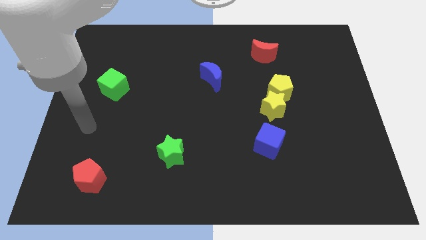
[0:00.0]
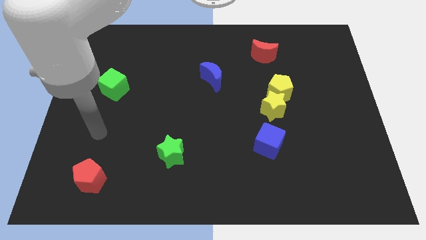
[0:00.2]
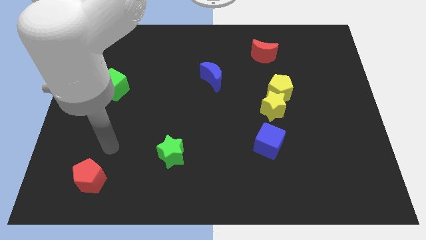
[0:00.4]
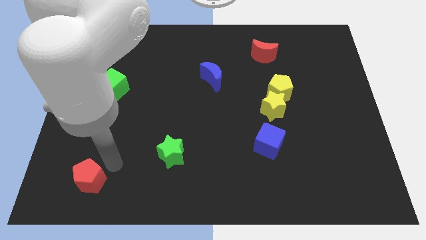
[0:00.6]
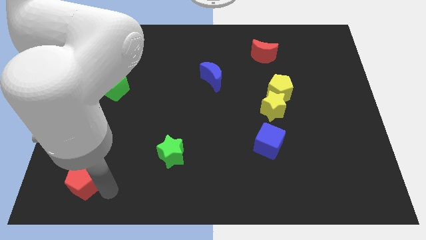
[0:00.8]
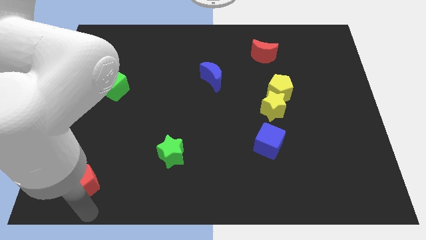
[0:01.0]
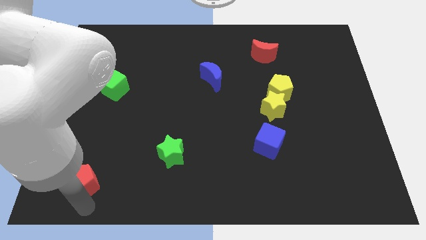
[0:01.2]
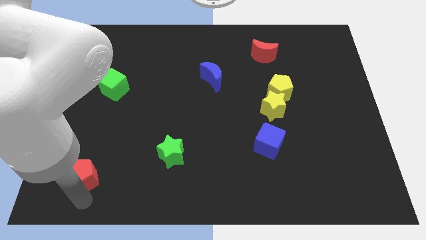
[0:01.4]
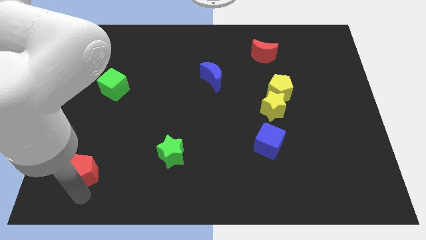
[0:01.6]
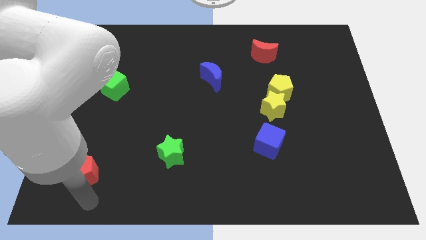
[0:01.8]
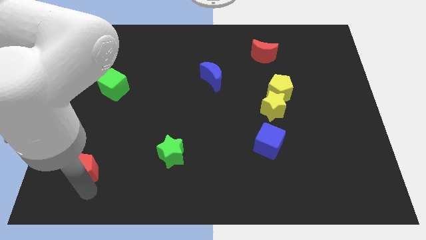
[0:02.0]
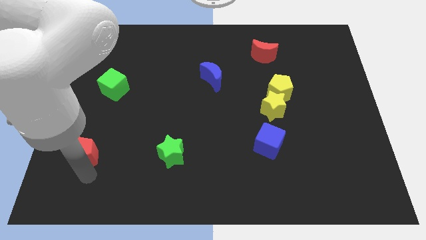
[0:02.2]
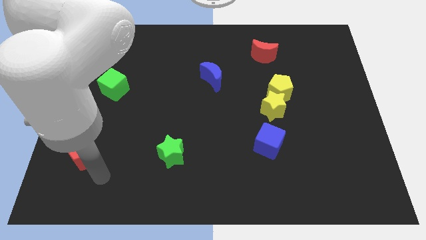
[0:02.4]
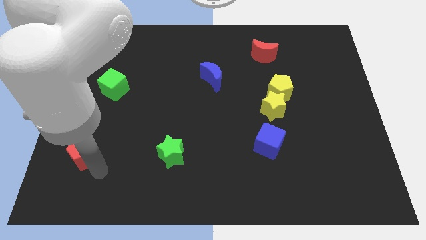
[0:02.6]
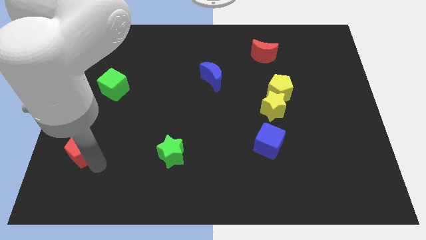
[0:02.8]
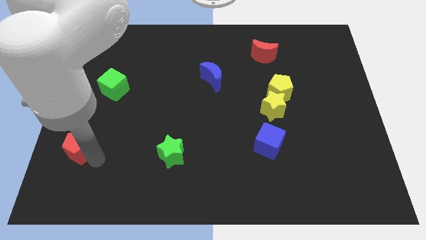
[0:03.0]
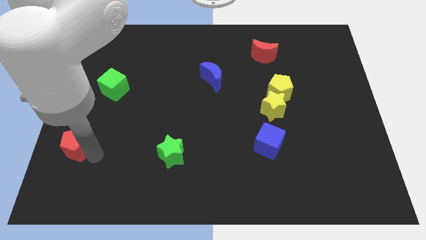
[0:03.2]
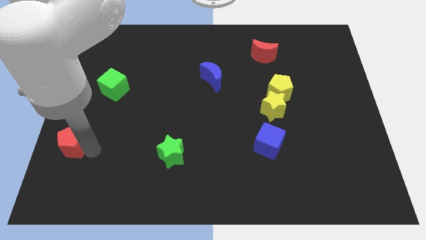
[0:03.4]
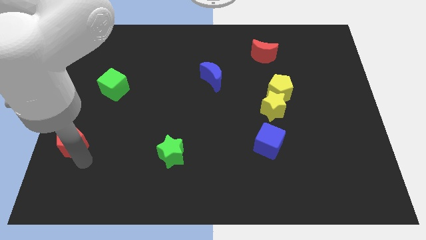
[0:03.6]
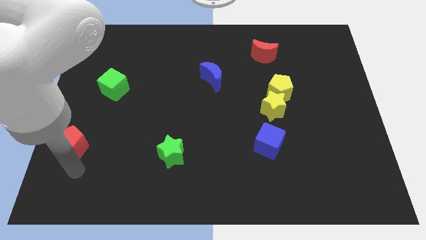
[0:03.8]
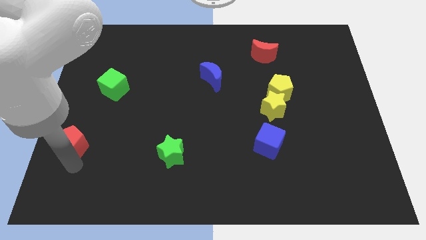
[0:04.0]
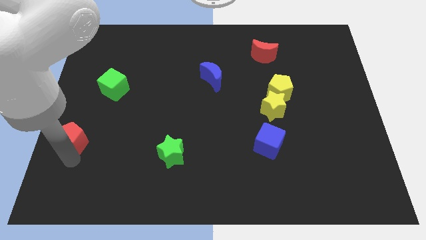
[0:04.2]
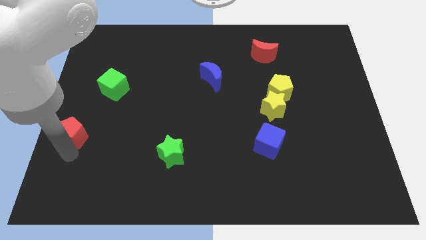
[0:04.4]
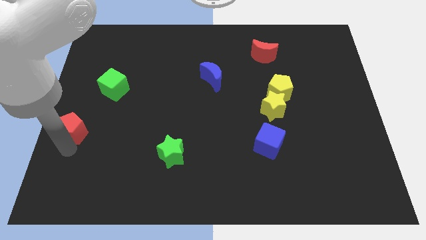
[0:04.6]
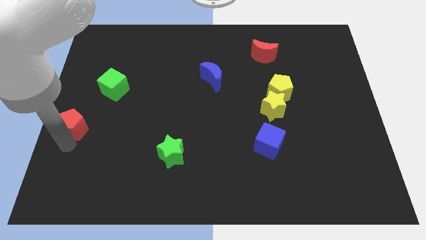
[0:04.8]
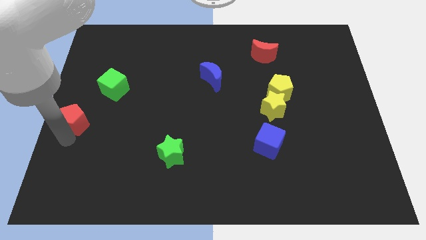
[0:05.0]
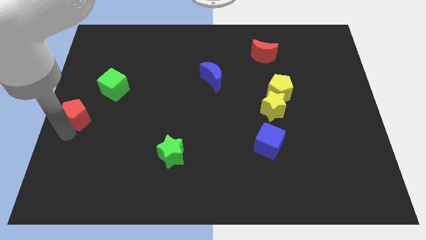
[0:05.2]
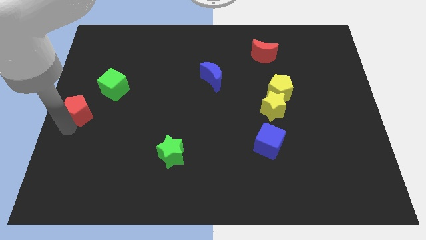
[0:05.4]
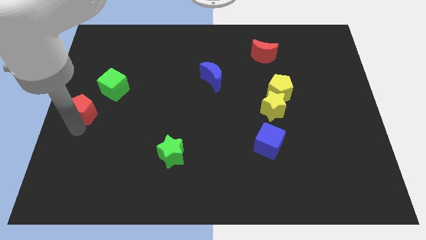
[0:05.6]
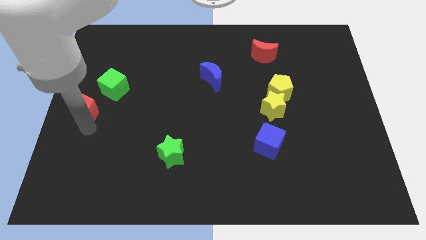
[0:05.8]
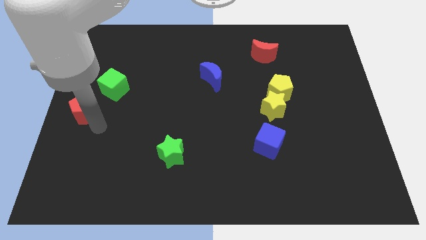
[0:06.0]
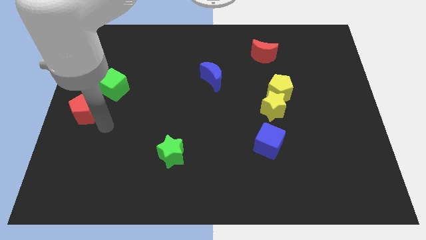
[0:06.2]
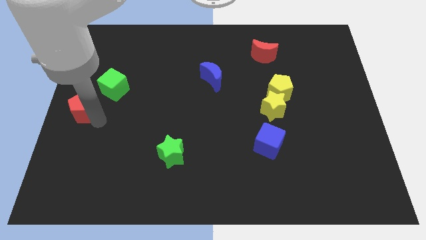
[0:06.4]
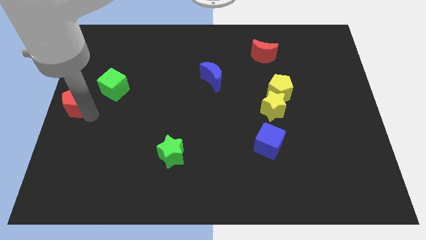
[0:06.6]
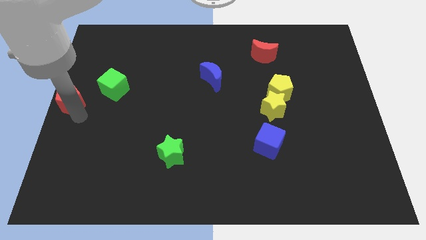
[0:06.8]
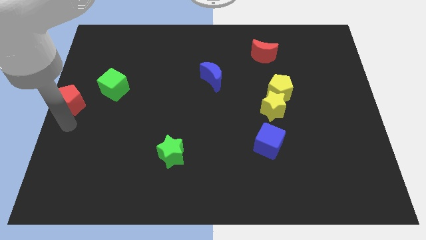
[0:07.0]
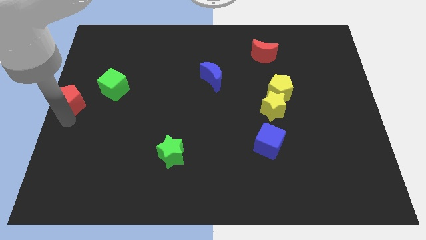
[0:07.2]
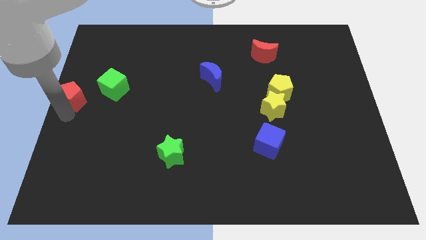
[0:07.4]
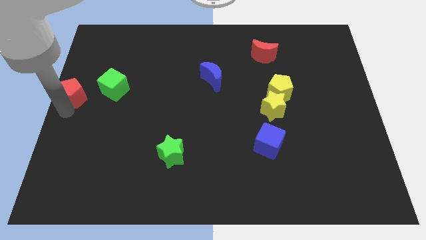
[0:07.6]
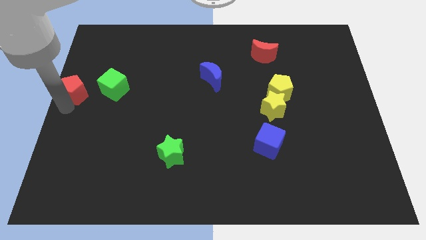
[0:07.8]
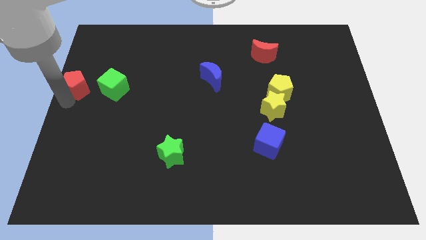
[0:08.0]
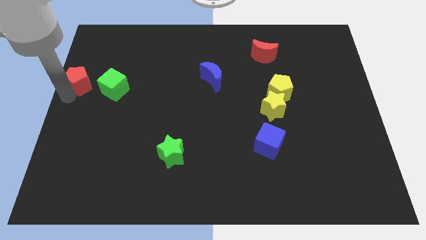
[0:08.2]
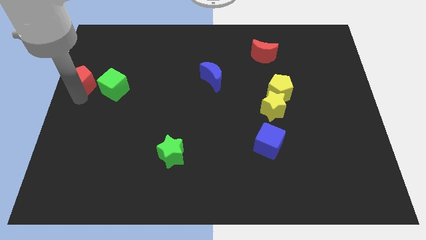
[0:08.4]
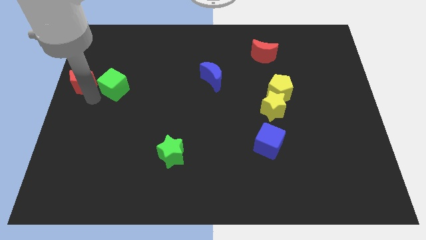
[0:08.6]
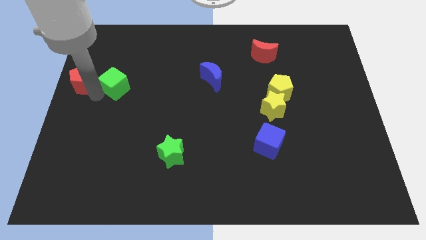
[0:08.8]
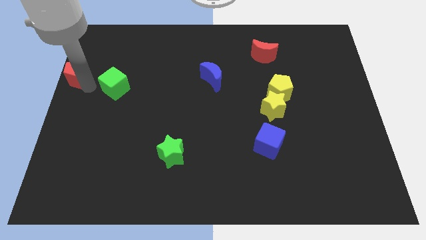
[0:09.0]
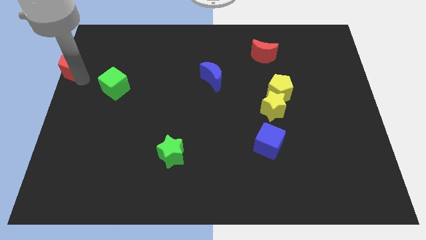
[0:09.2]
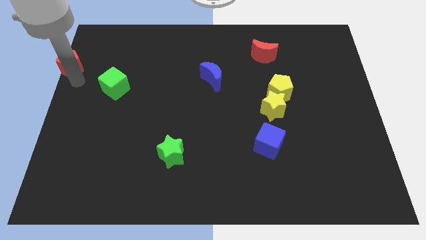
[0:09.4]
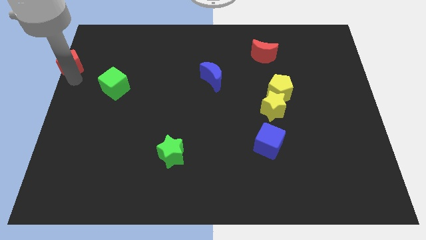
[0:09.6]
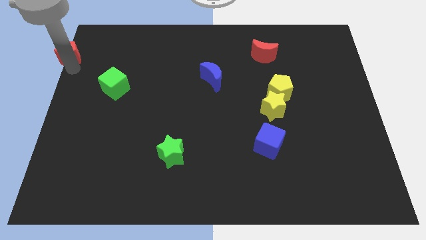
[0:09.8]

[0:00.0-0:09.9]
push the red pentagon to the top left of the board

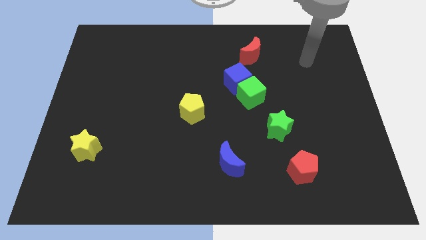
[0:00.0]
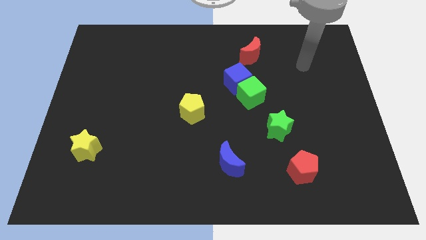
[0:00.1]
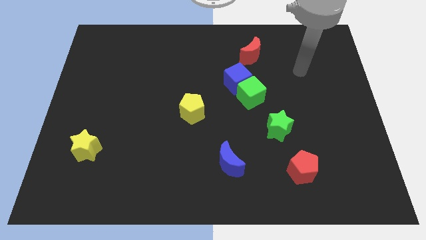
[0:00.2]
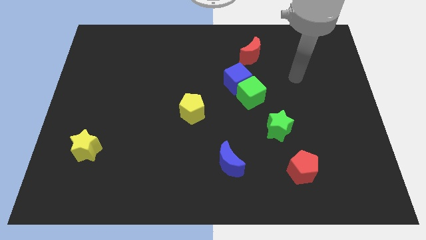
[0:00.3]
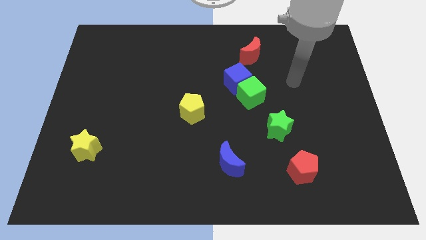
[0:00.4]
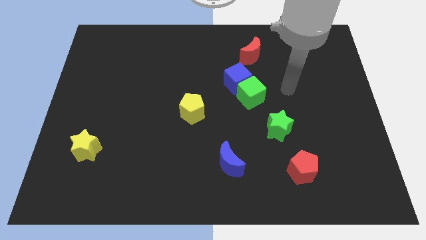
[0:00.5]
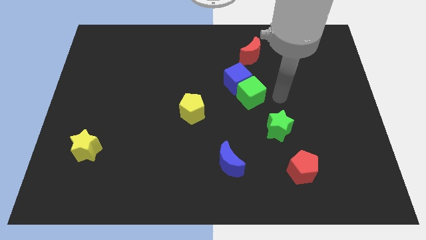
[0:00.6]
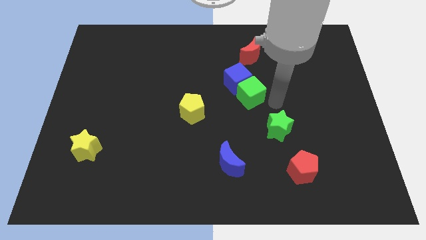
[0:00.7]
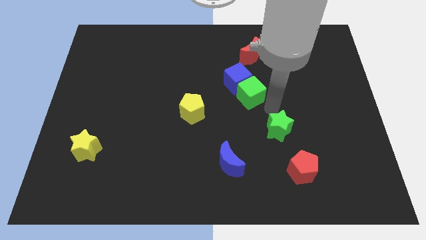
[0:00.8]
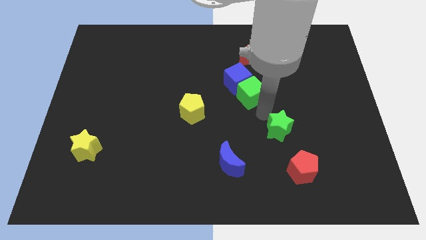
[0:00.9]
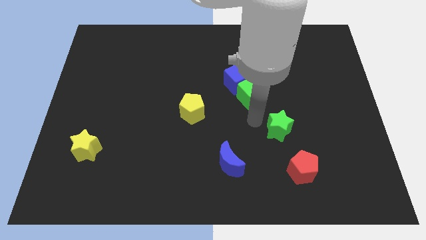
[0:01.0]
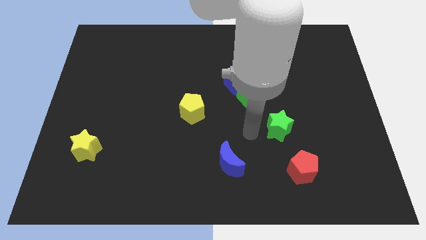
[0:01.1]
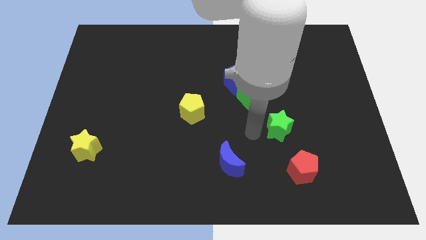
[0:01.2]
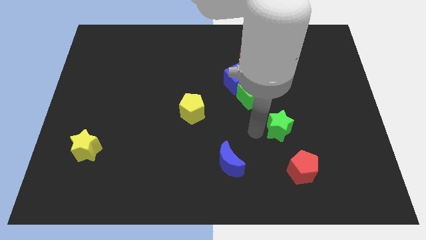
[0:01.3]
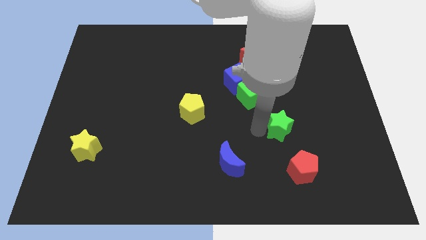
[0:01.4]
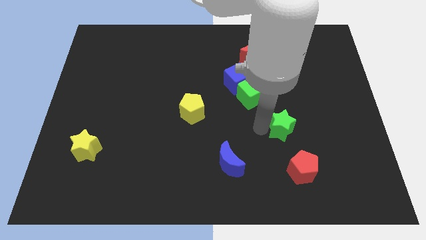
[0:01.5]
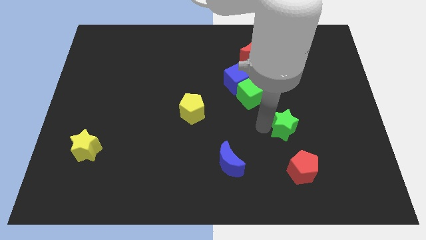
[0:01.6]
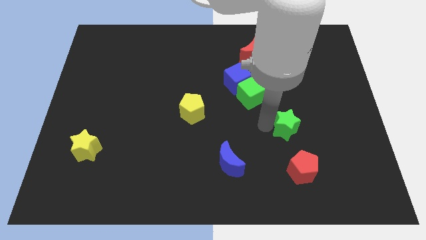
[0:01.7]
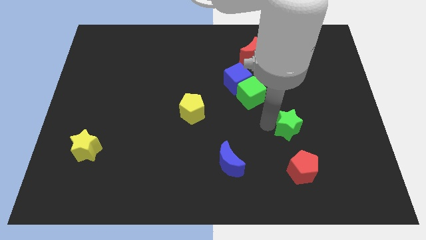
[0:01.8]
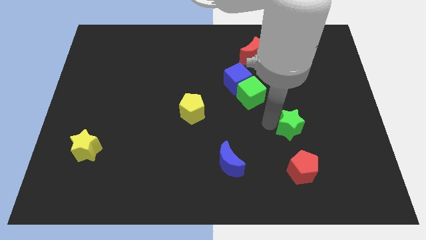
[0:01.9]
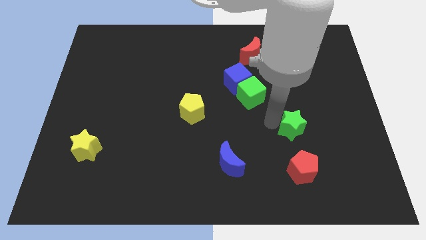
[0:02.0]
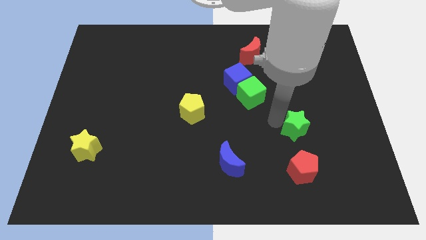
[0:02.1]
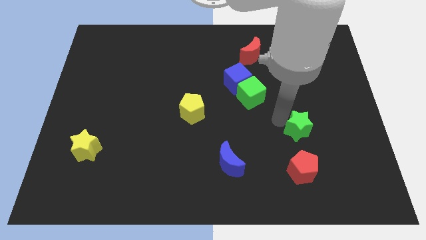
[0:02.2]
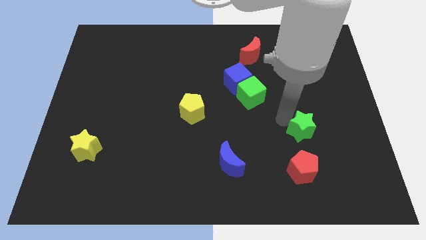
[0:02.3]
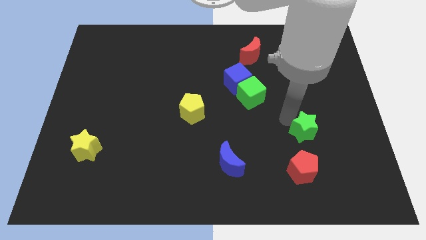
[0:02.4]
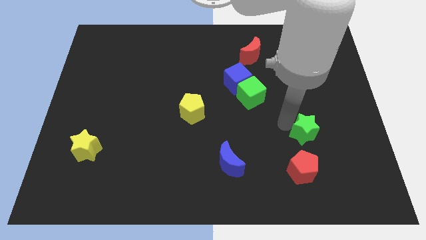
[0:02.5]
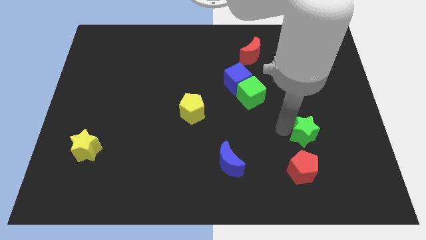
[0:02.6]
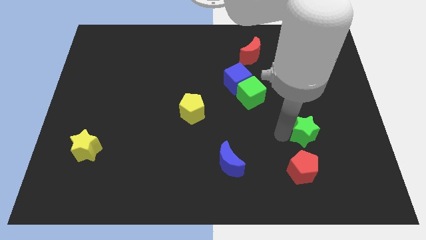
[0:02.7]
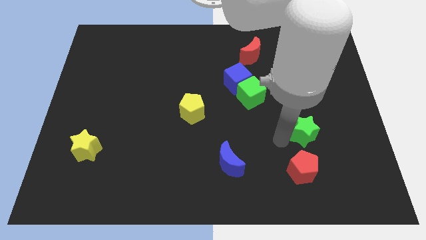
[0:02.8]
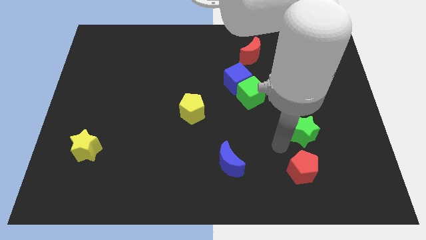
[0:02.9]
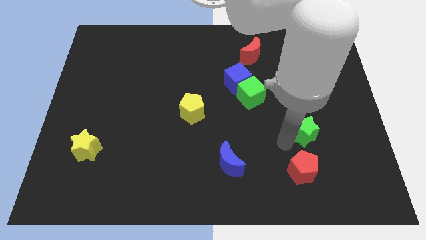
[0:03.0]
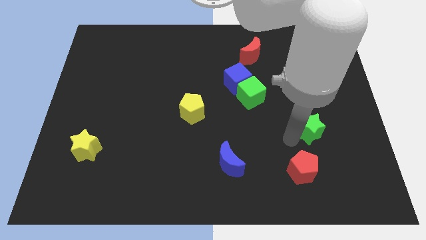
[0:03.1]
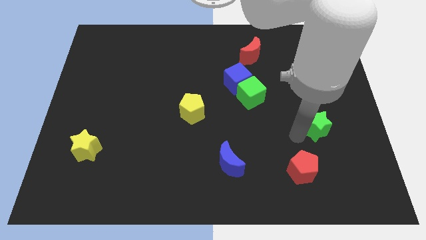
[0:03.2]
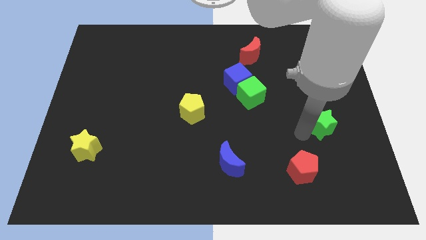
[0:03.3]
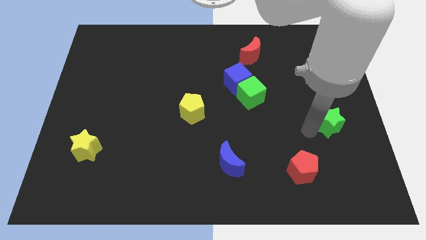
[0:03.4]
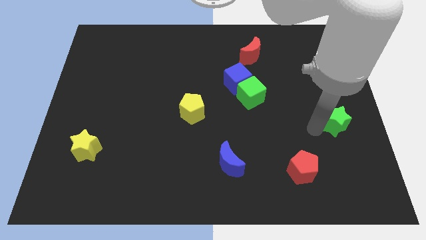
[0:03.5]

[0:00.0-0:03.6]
put the green star to the center right
